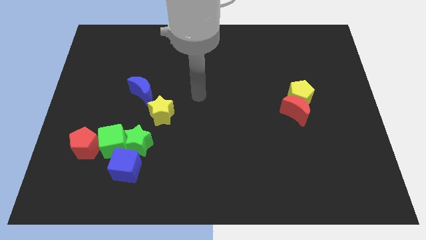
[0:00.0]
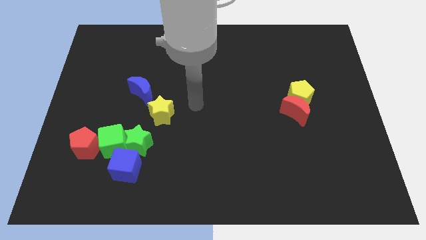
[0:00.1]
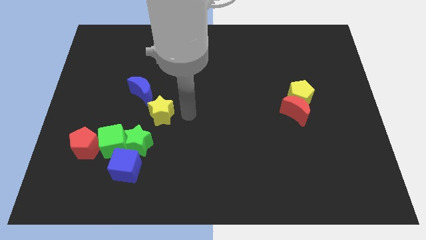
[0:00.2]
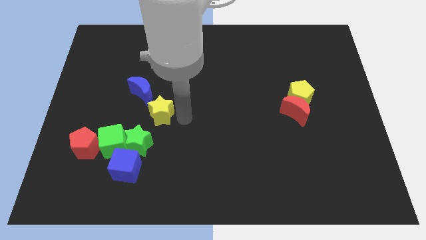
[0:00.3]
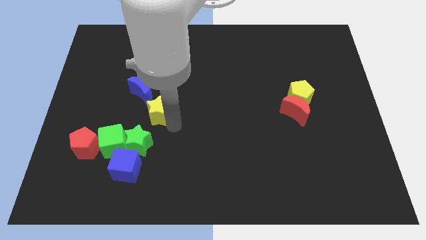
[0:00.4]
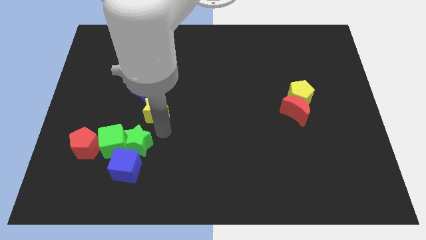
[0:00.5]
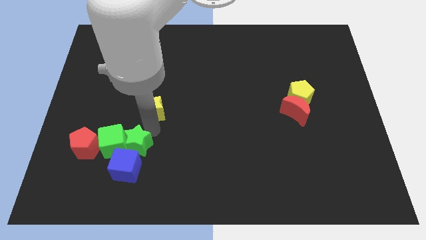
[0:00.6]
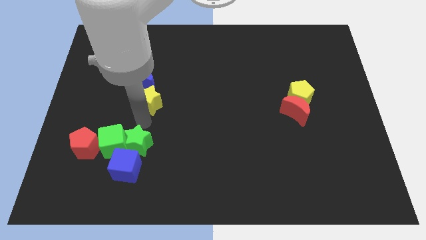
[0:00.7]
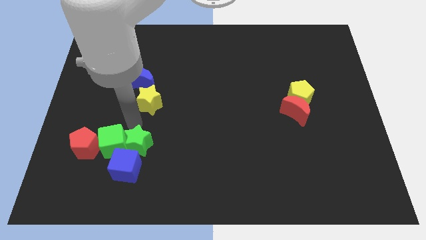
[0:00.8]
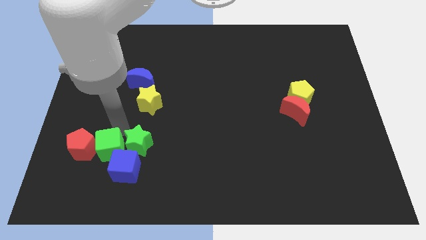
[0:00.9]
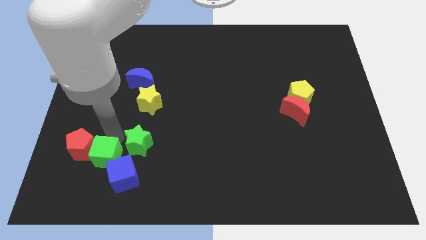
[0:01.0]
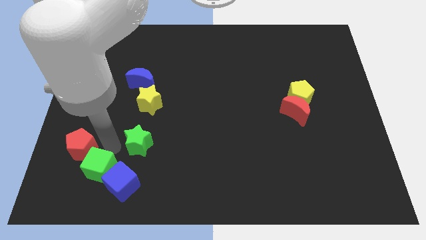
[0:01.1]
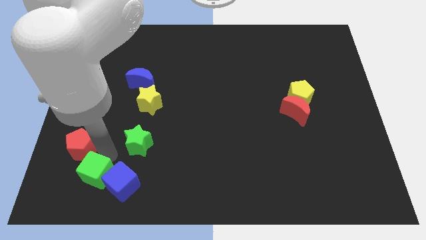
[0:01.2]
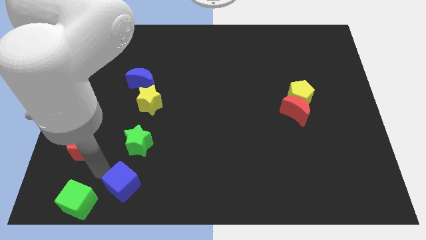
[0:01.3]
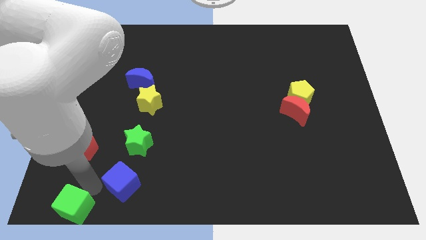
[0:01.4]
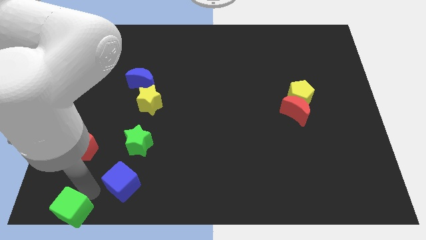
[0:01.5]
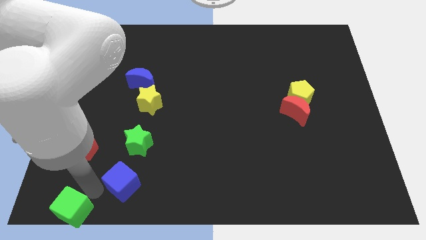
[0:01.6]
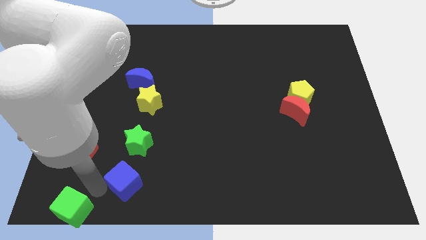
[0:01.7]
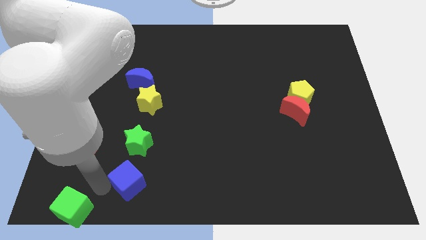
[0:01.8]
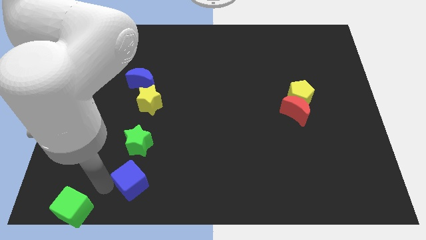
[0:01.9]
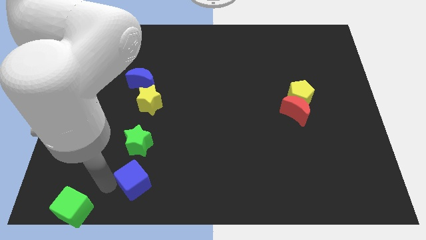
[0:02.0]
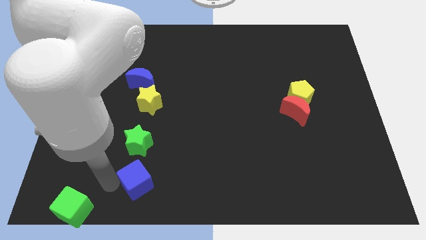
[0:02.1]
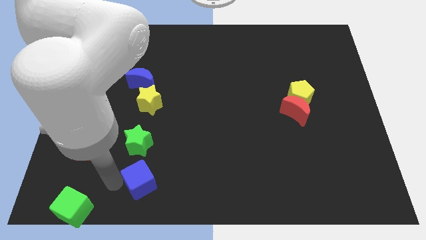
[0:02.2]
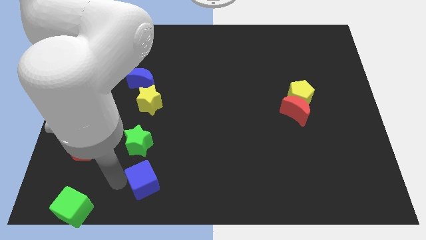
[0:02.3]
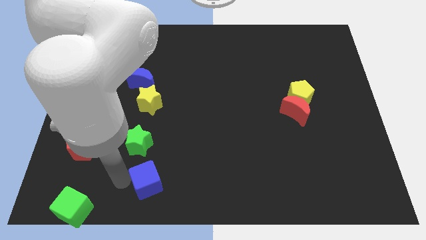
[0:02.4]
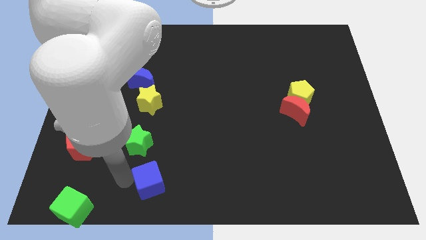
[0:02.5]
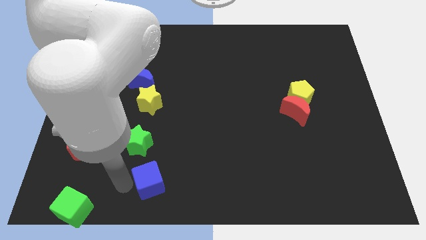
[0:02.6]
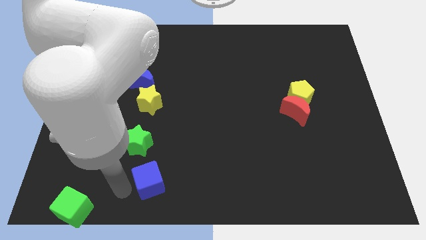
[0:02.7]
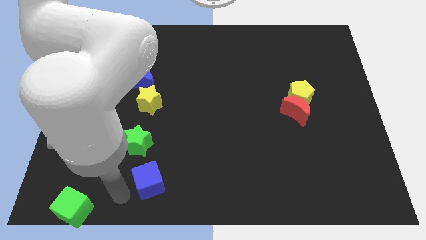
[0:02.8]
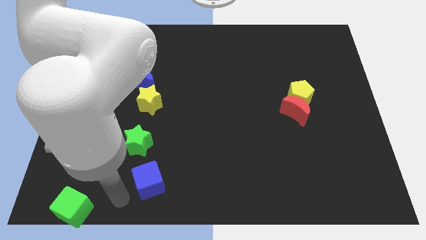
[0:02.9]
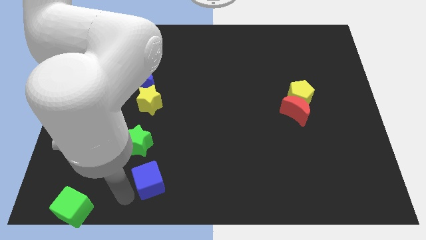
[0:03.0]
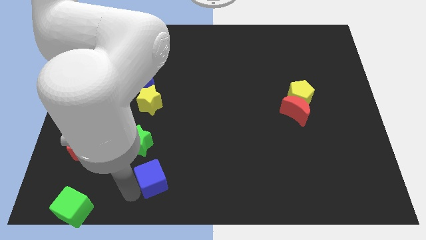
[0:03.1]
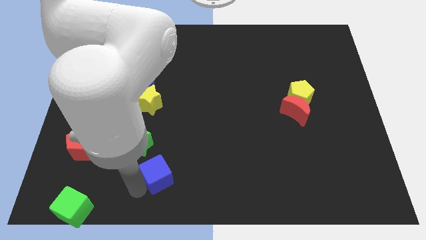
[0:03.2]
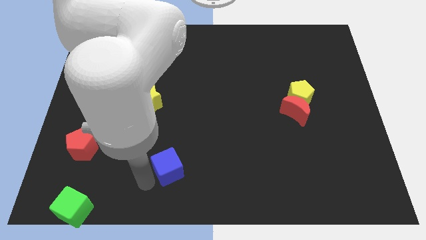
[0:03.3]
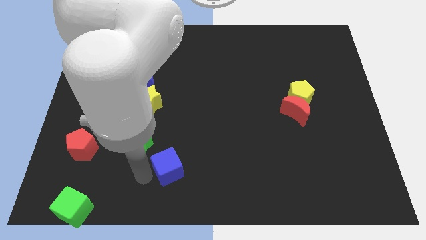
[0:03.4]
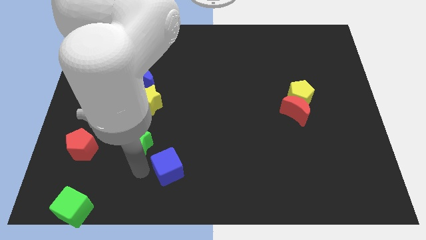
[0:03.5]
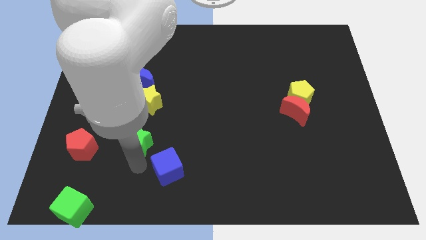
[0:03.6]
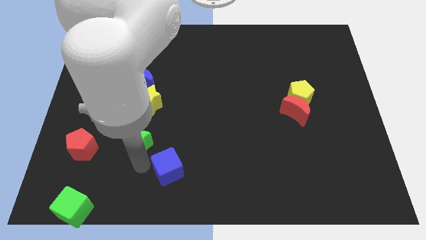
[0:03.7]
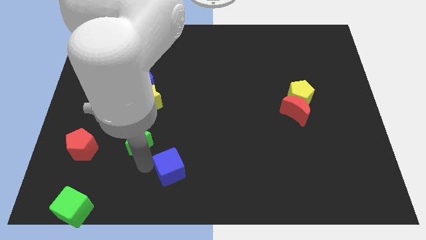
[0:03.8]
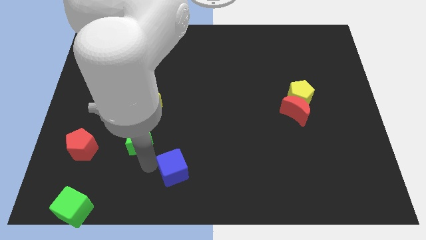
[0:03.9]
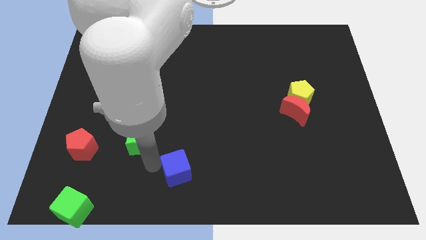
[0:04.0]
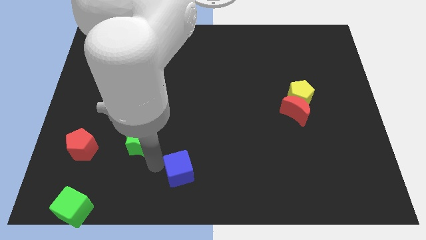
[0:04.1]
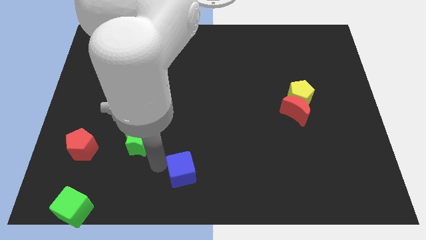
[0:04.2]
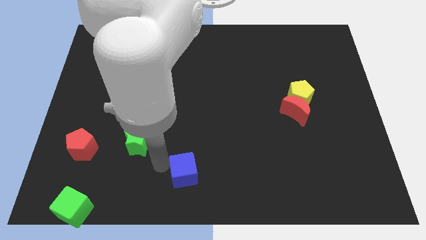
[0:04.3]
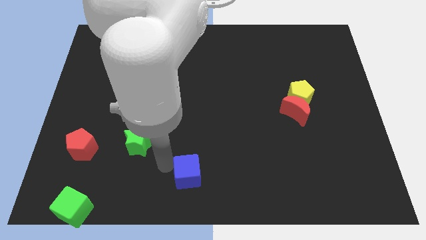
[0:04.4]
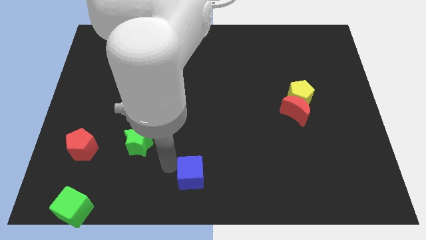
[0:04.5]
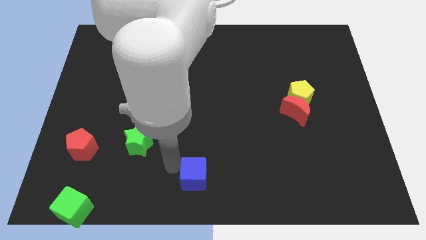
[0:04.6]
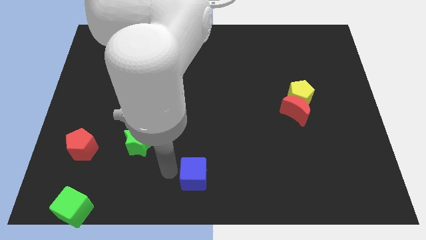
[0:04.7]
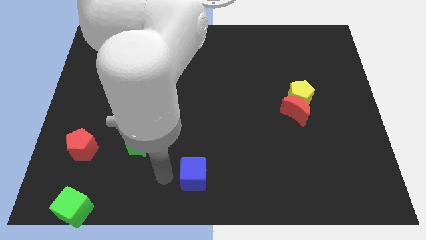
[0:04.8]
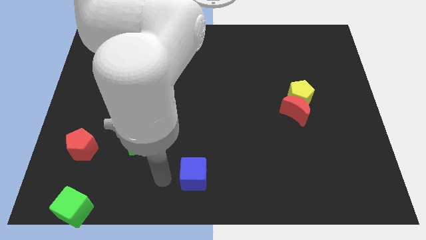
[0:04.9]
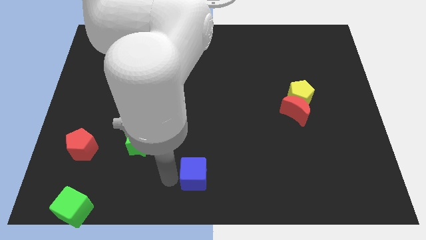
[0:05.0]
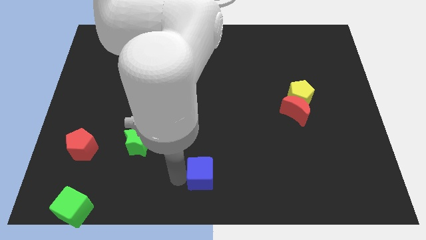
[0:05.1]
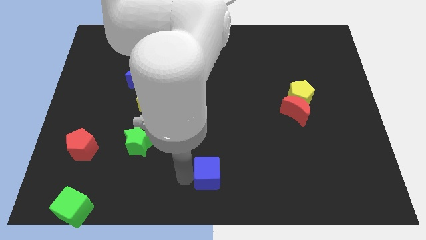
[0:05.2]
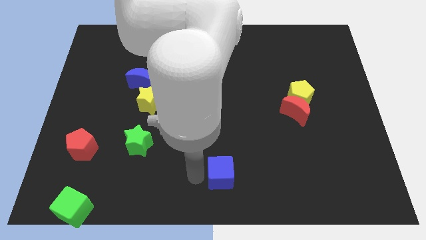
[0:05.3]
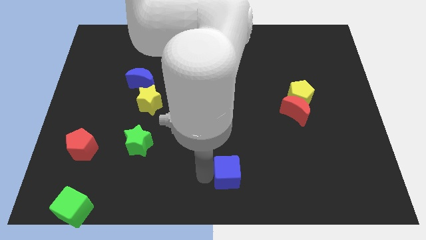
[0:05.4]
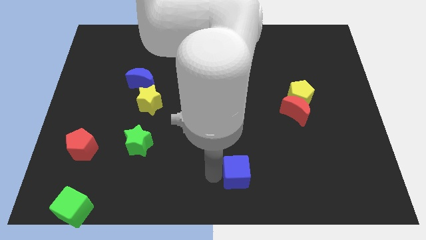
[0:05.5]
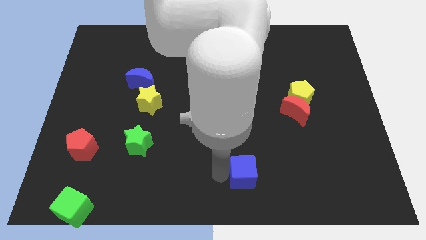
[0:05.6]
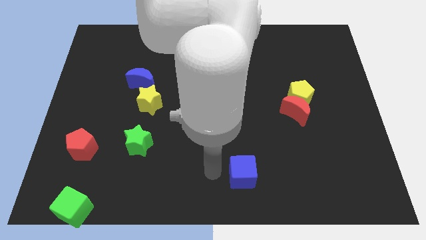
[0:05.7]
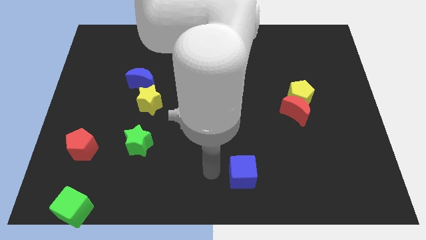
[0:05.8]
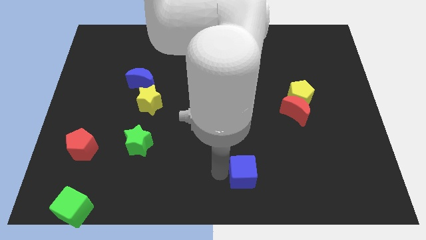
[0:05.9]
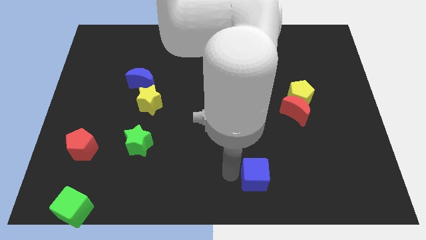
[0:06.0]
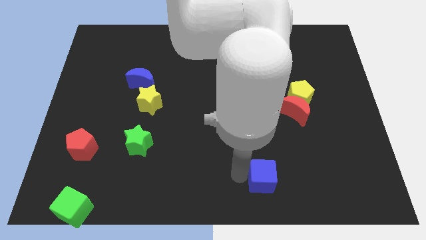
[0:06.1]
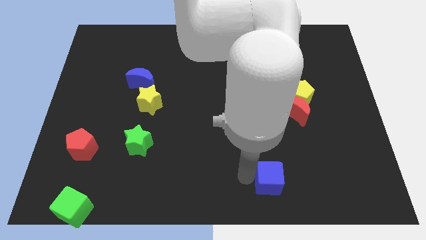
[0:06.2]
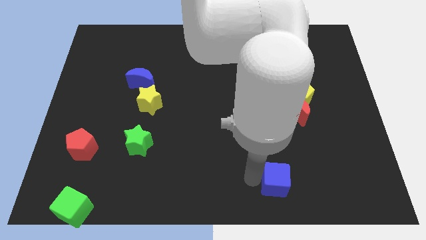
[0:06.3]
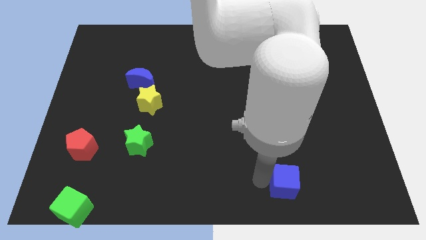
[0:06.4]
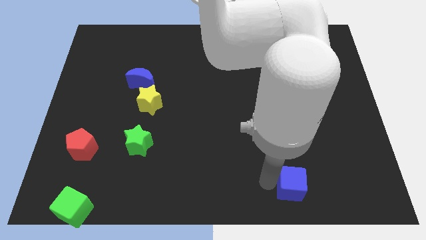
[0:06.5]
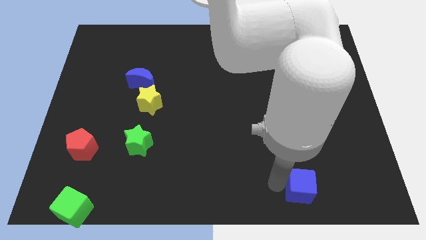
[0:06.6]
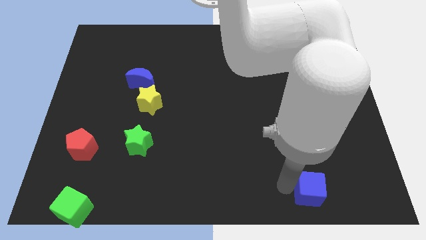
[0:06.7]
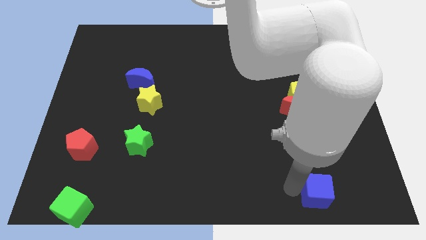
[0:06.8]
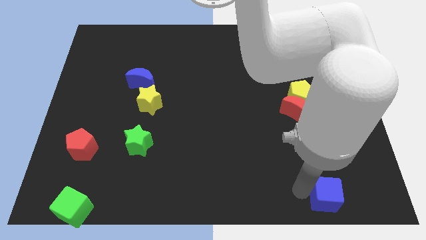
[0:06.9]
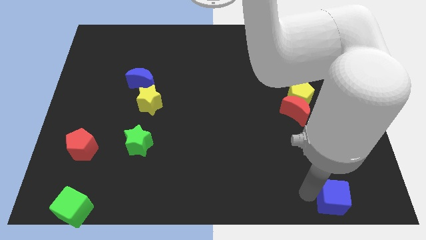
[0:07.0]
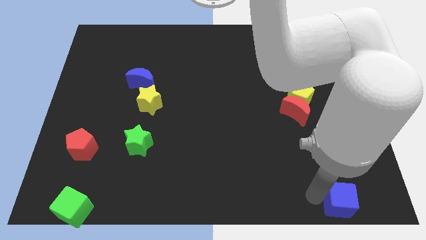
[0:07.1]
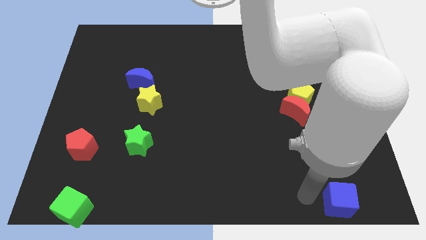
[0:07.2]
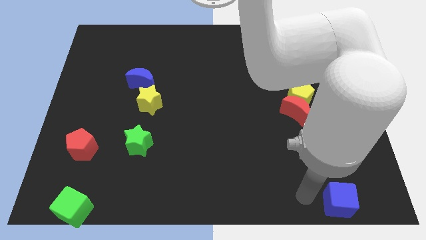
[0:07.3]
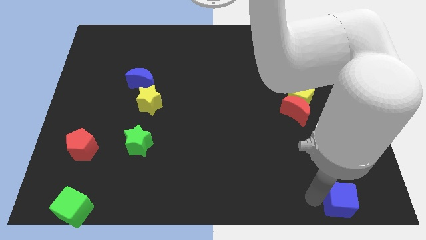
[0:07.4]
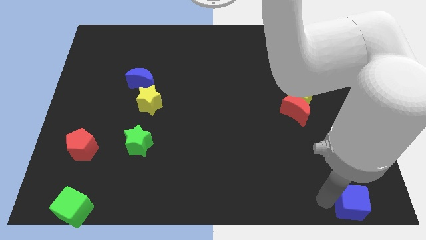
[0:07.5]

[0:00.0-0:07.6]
put the blue cube to the bottom right corner
